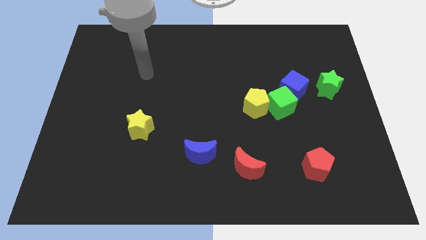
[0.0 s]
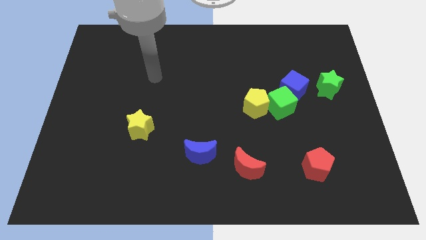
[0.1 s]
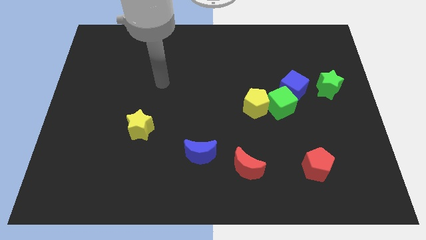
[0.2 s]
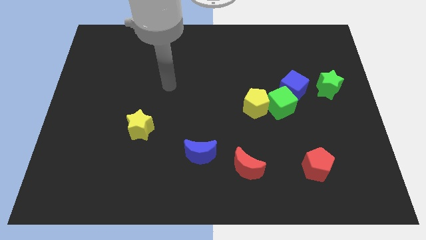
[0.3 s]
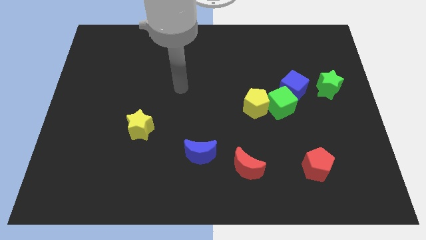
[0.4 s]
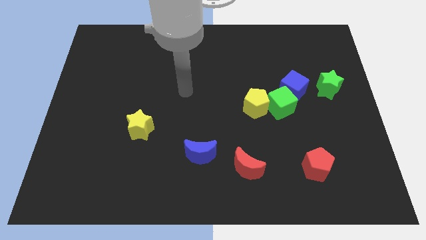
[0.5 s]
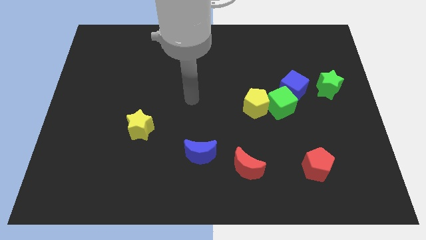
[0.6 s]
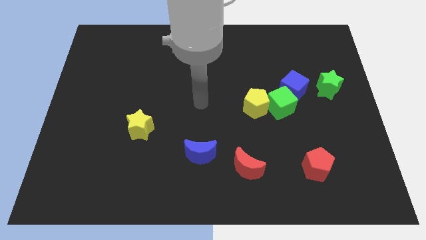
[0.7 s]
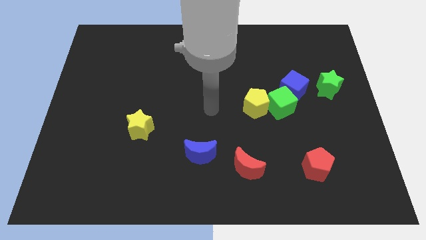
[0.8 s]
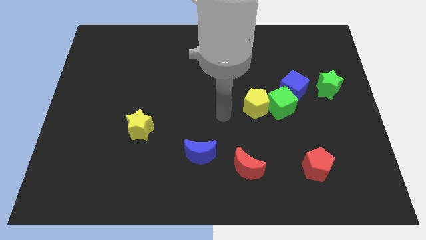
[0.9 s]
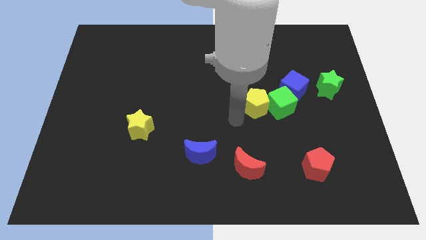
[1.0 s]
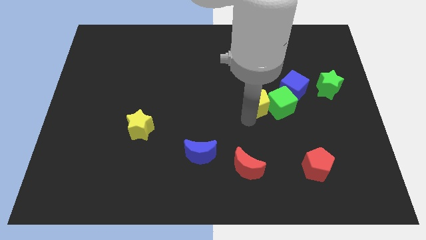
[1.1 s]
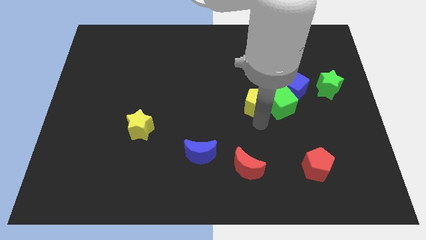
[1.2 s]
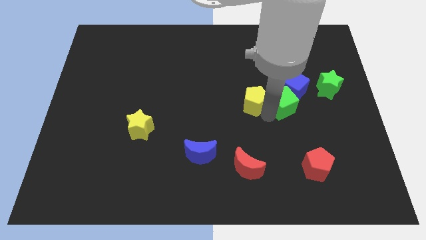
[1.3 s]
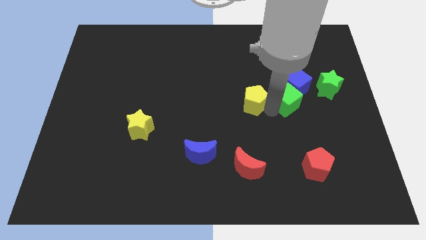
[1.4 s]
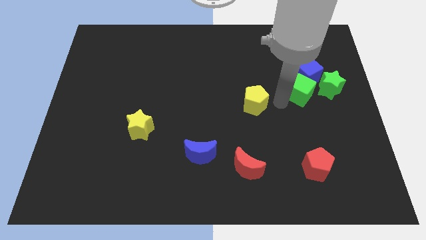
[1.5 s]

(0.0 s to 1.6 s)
move the yellow pentagon away from the green cube

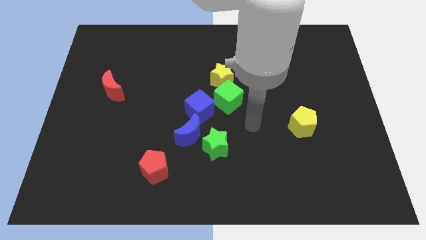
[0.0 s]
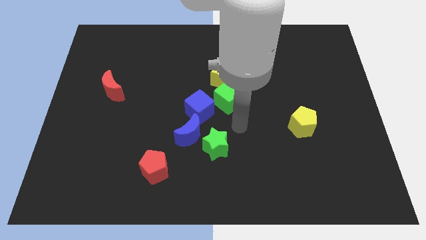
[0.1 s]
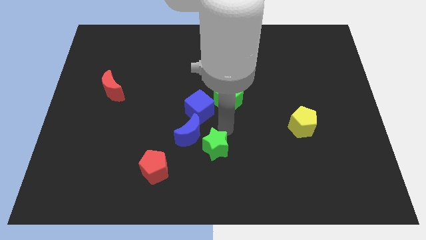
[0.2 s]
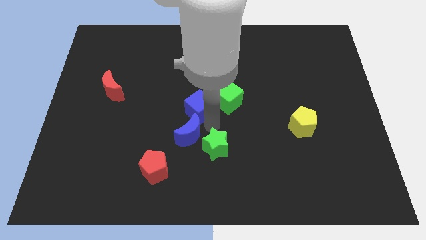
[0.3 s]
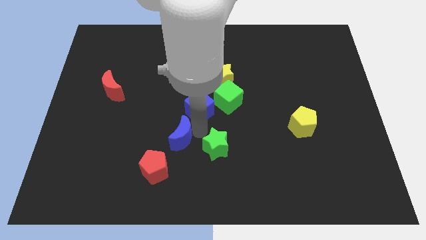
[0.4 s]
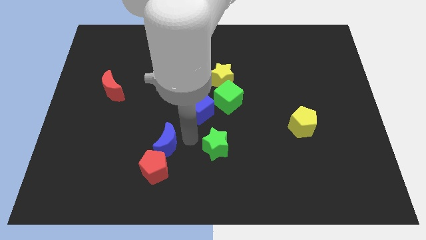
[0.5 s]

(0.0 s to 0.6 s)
pull the green star apart from the blue moon

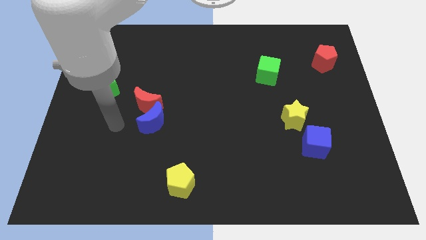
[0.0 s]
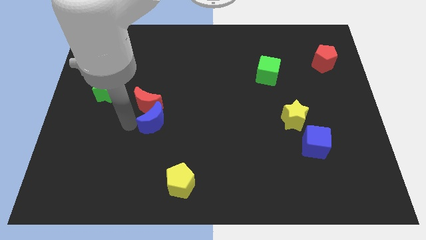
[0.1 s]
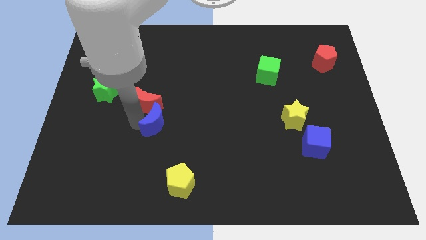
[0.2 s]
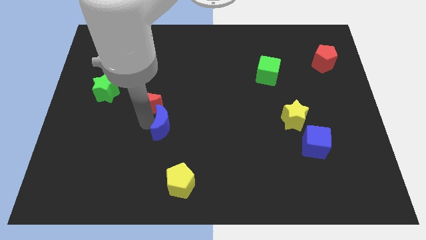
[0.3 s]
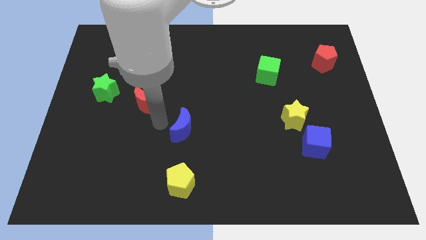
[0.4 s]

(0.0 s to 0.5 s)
separate the red moon from the blue moon

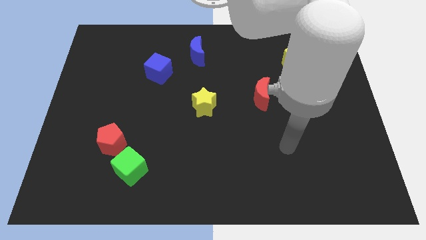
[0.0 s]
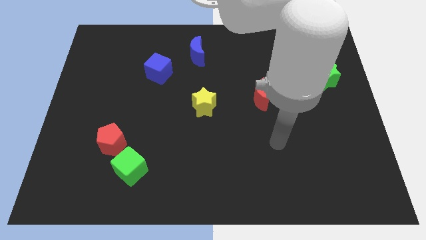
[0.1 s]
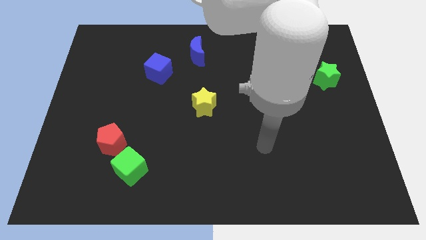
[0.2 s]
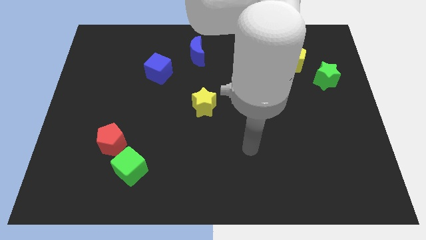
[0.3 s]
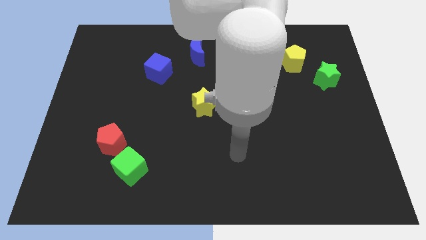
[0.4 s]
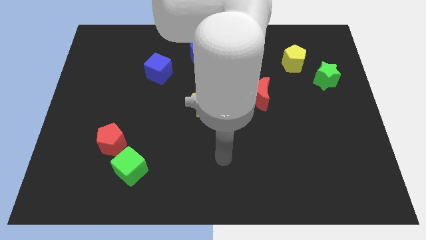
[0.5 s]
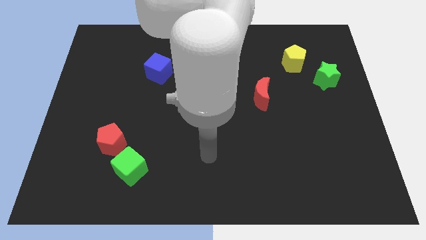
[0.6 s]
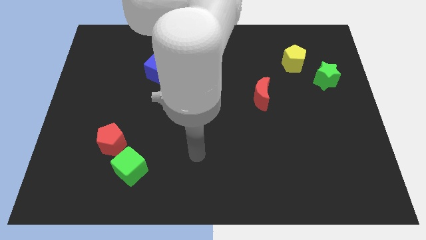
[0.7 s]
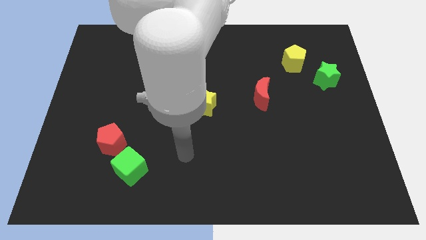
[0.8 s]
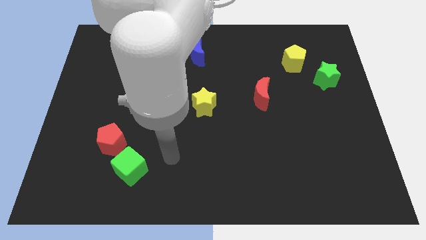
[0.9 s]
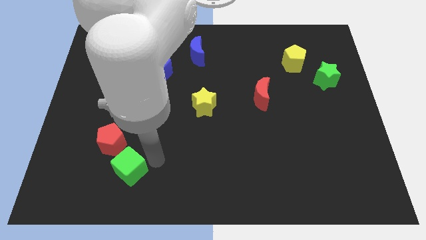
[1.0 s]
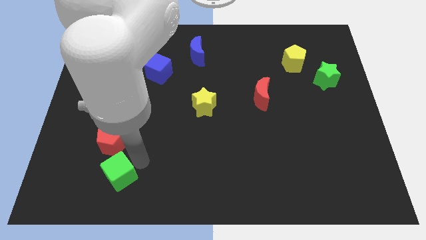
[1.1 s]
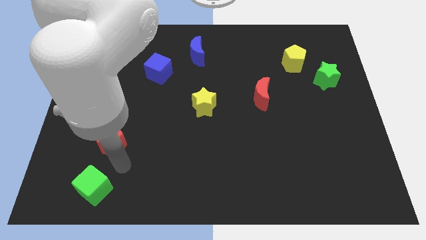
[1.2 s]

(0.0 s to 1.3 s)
move the red pentagon away from the green cube

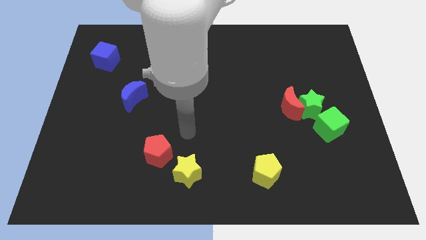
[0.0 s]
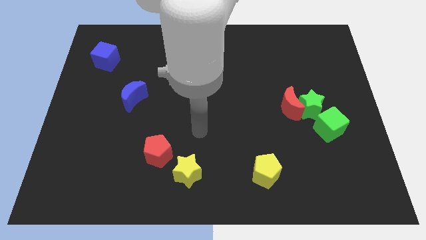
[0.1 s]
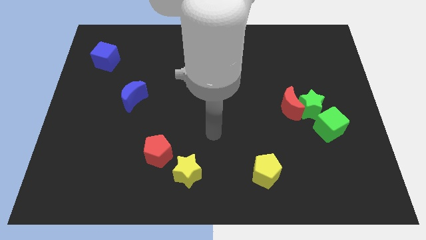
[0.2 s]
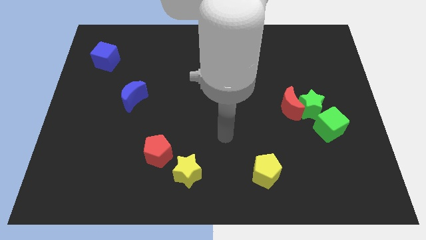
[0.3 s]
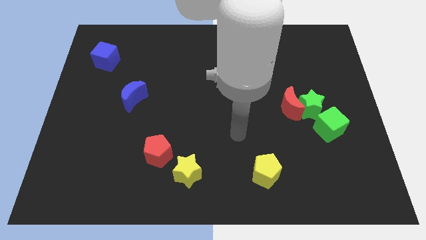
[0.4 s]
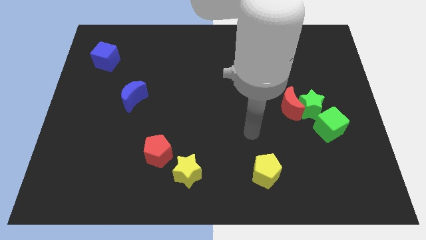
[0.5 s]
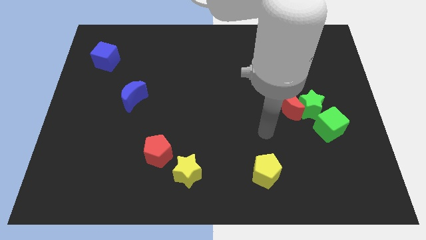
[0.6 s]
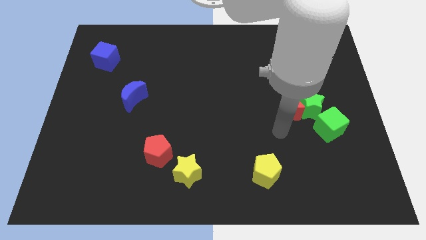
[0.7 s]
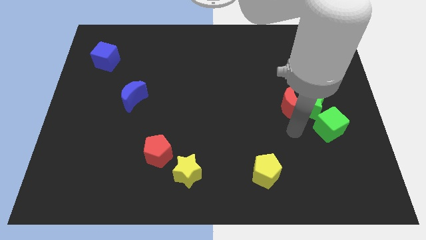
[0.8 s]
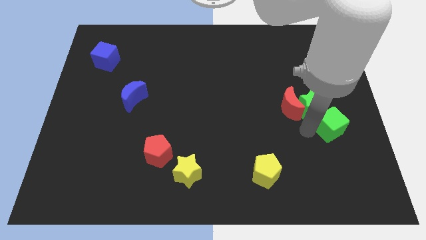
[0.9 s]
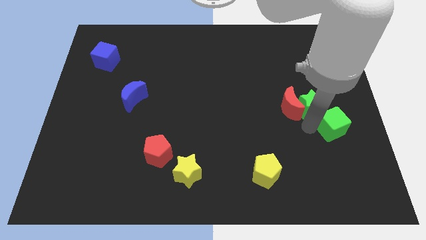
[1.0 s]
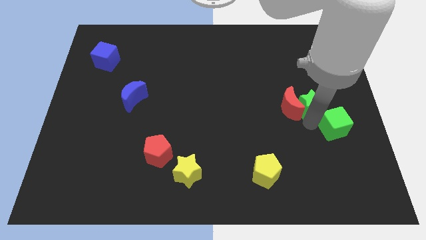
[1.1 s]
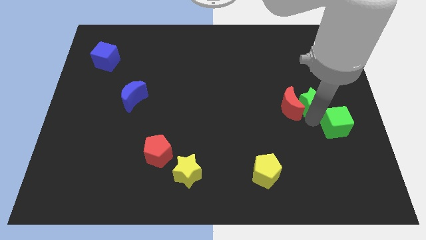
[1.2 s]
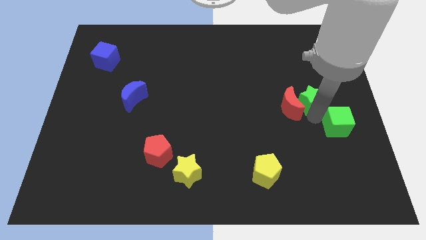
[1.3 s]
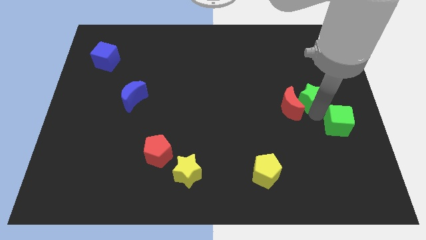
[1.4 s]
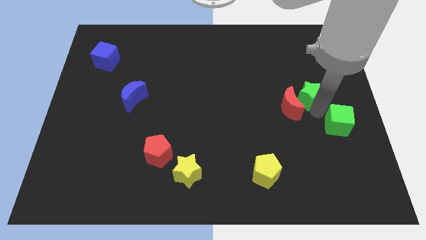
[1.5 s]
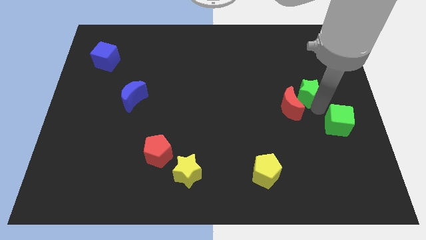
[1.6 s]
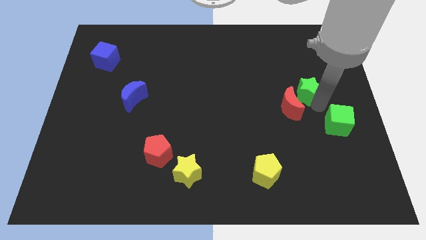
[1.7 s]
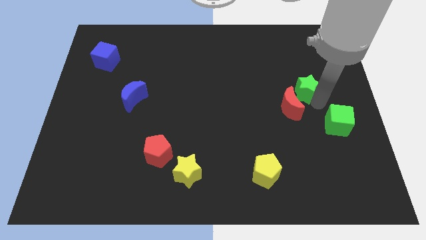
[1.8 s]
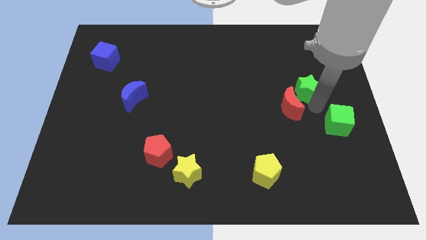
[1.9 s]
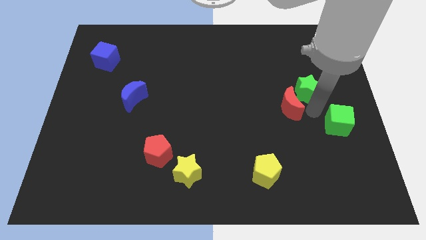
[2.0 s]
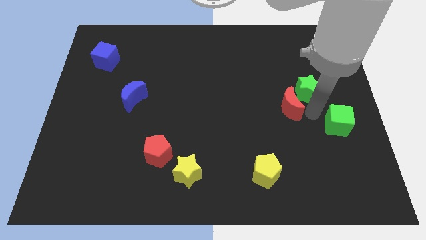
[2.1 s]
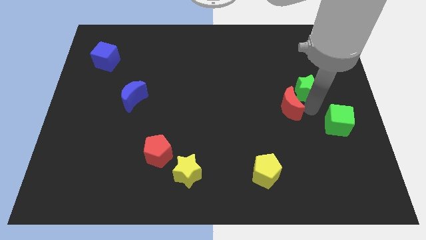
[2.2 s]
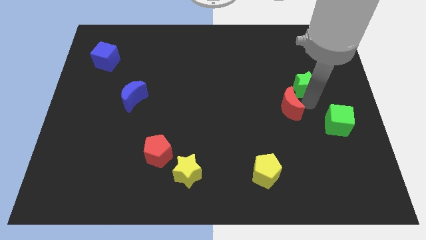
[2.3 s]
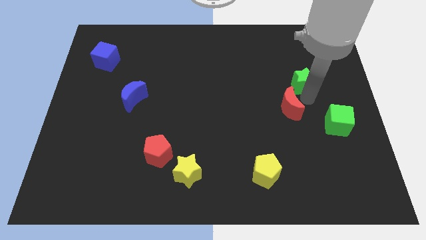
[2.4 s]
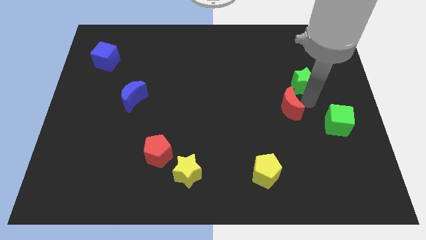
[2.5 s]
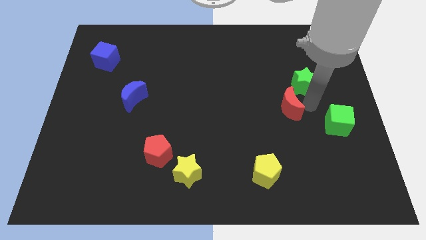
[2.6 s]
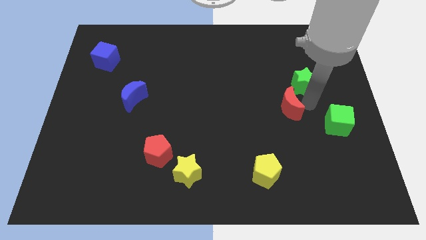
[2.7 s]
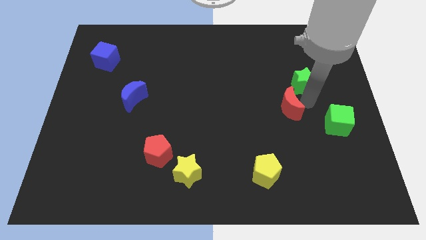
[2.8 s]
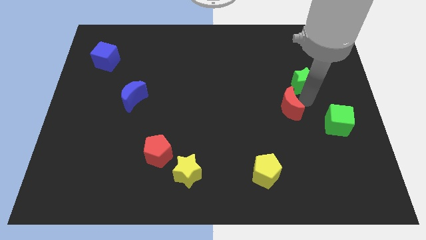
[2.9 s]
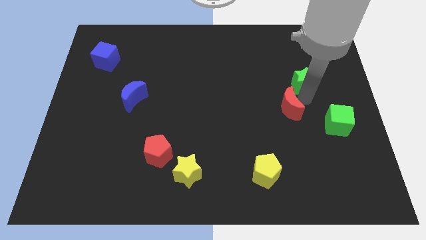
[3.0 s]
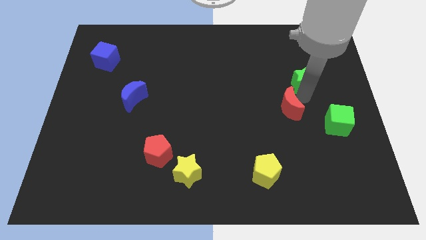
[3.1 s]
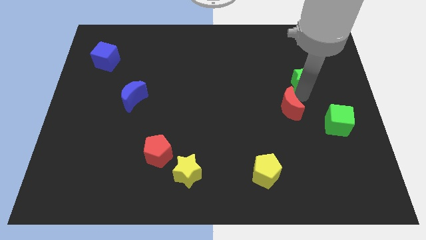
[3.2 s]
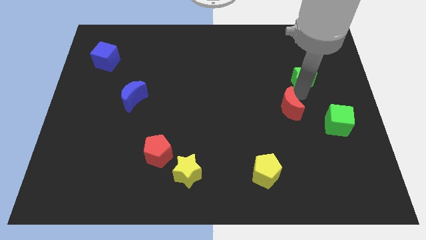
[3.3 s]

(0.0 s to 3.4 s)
pull the green star apart from the red moon and green cube

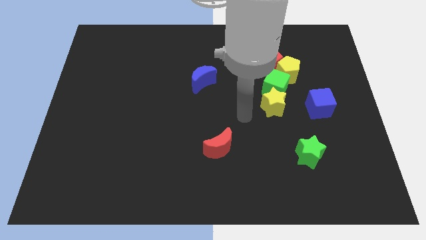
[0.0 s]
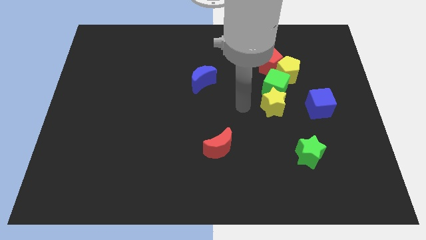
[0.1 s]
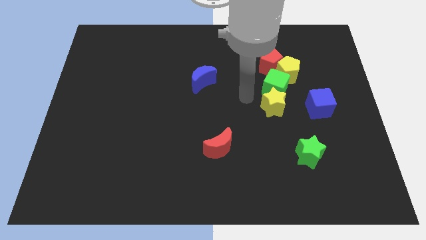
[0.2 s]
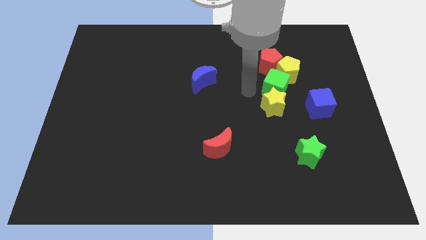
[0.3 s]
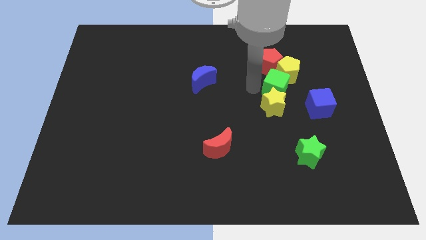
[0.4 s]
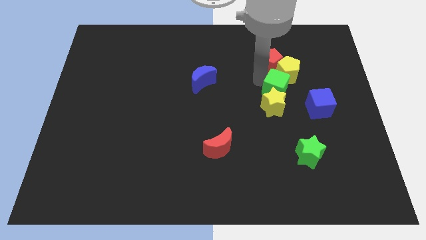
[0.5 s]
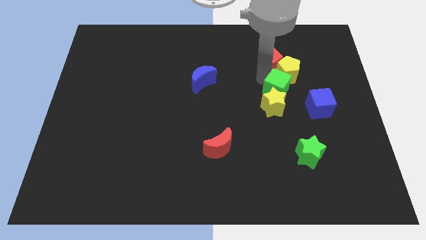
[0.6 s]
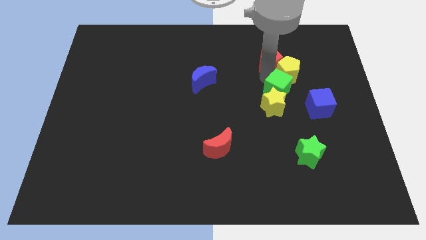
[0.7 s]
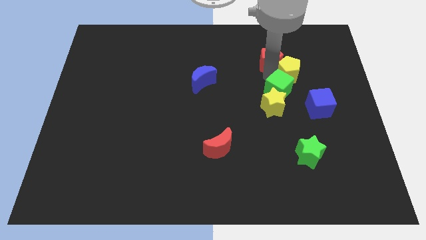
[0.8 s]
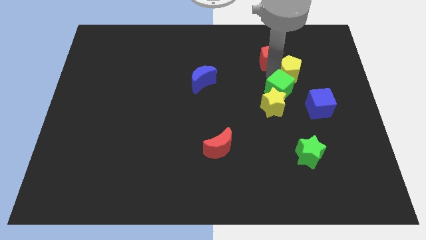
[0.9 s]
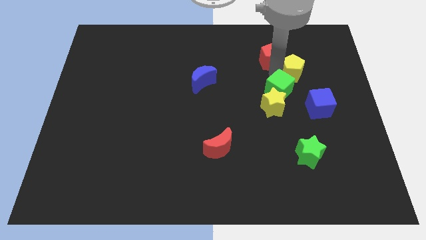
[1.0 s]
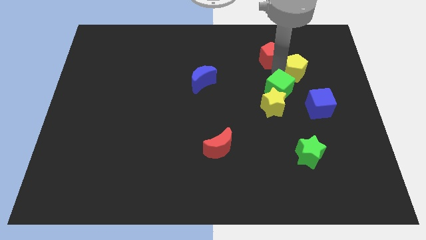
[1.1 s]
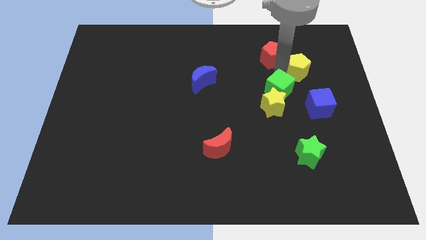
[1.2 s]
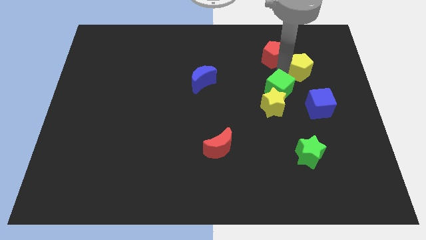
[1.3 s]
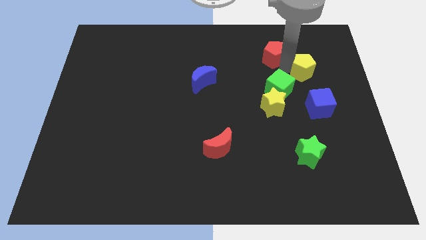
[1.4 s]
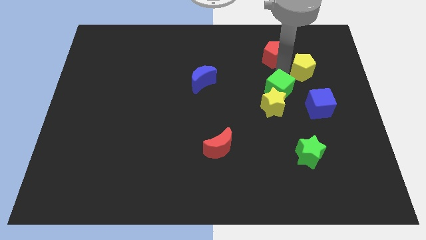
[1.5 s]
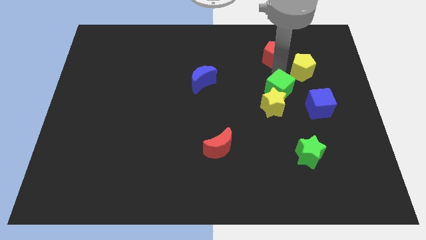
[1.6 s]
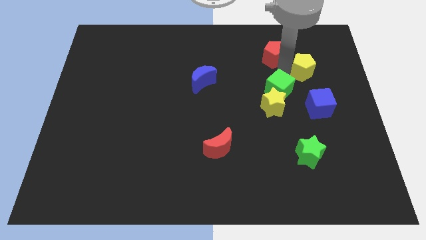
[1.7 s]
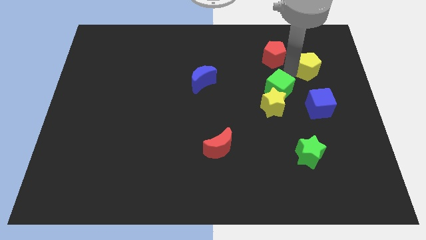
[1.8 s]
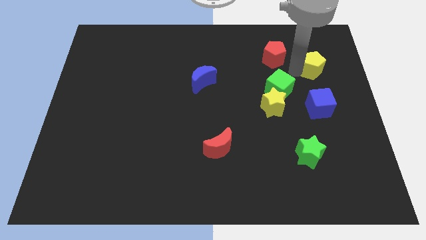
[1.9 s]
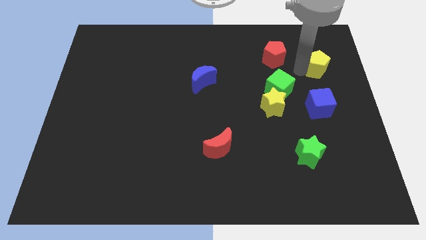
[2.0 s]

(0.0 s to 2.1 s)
separate the yellow pentagon from the red pentagon and green cube
